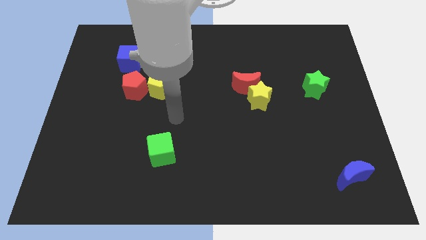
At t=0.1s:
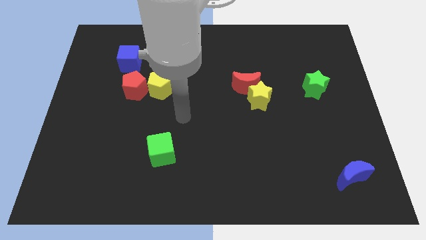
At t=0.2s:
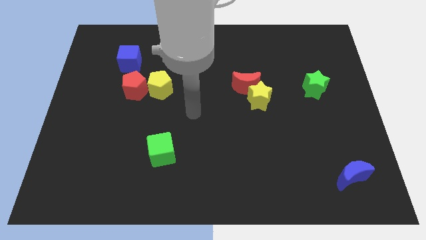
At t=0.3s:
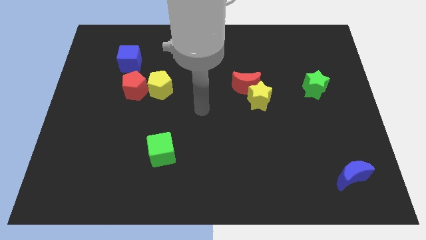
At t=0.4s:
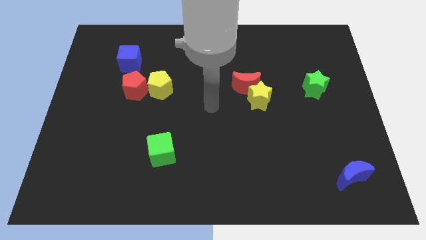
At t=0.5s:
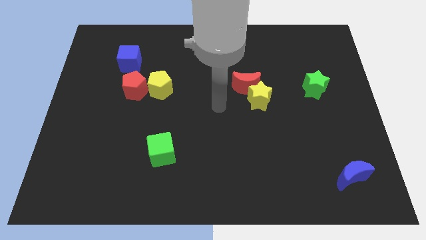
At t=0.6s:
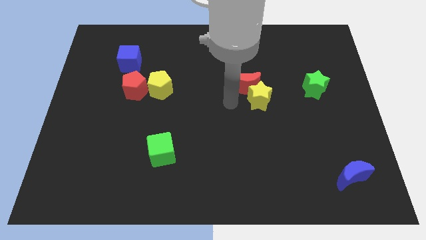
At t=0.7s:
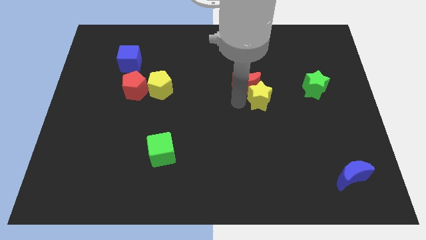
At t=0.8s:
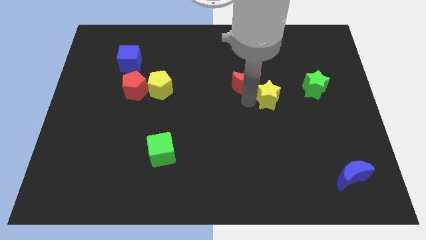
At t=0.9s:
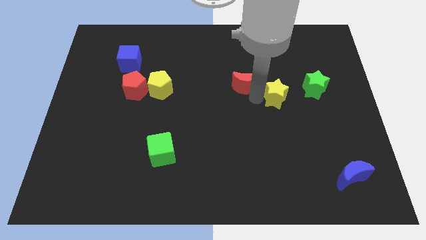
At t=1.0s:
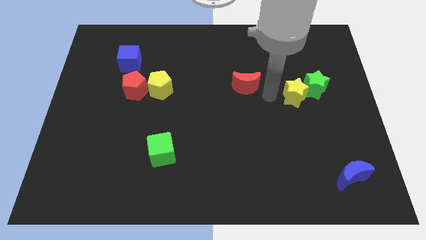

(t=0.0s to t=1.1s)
move the red moon away from the yellow star

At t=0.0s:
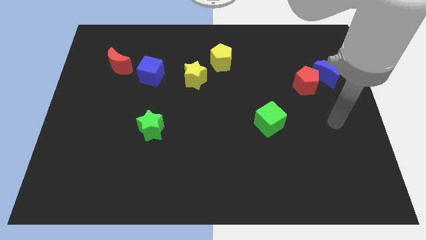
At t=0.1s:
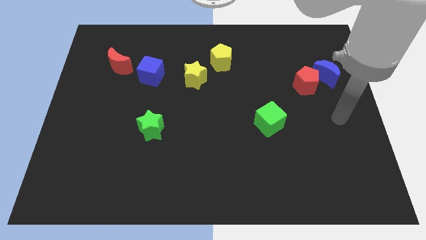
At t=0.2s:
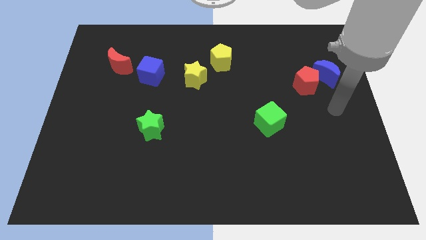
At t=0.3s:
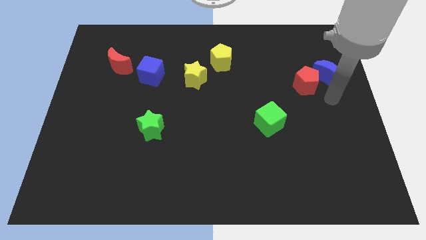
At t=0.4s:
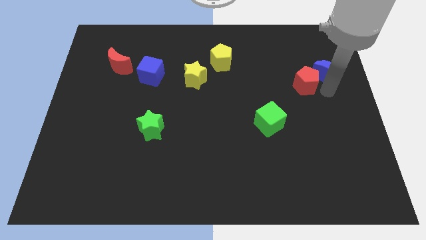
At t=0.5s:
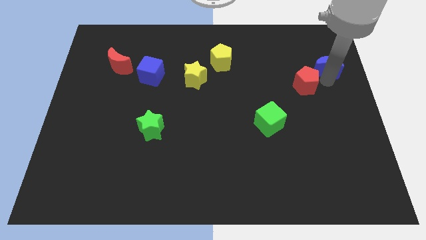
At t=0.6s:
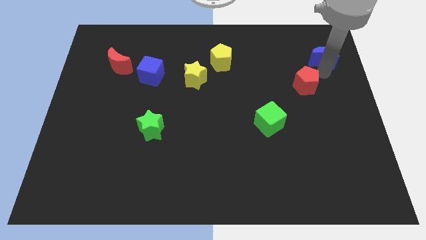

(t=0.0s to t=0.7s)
pull the red pentagon apart from the blue moon

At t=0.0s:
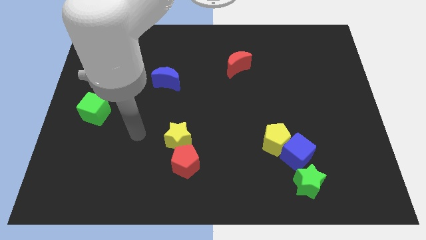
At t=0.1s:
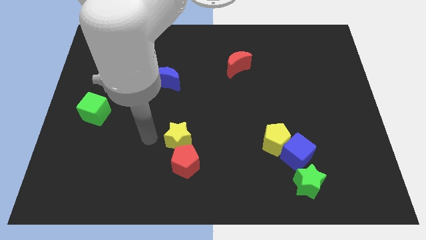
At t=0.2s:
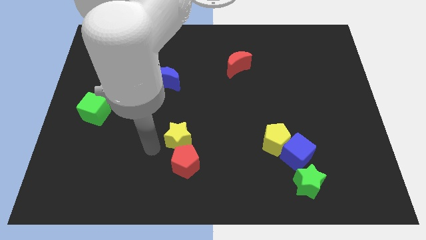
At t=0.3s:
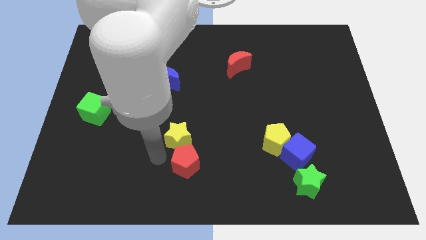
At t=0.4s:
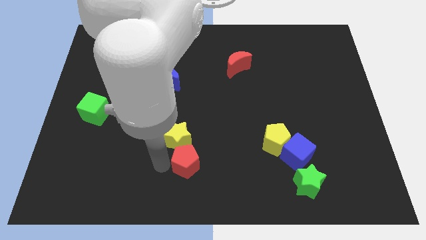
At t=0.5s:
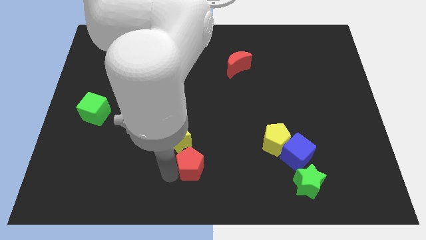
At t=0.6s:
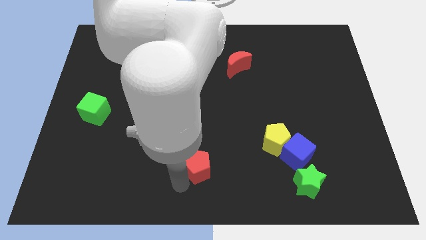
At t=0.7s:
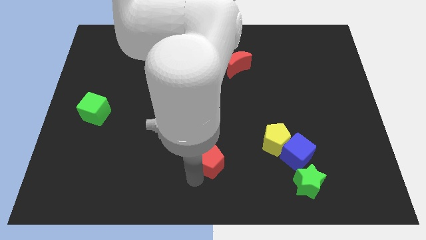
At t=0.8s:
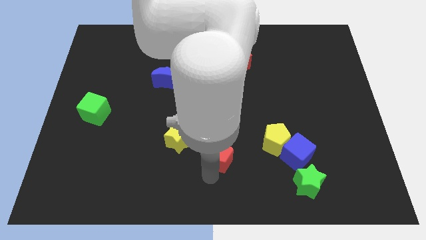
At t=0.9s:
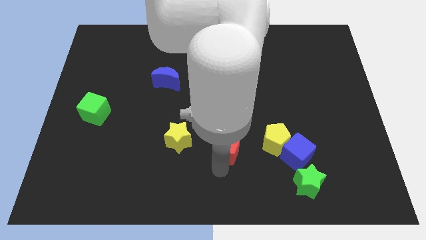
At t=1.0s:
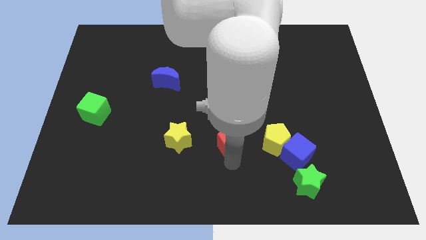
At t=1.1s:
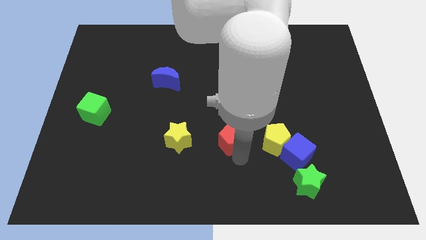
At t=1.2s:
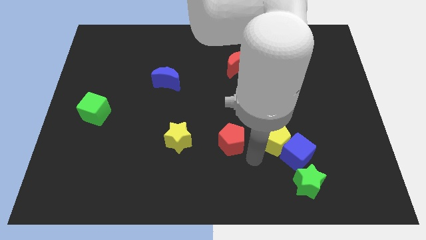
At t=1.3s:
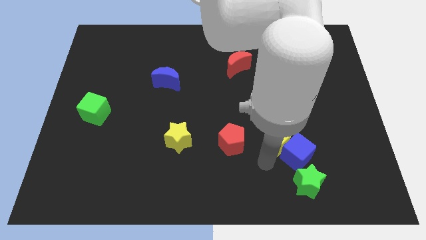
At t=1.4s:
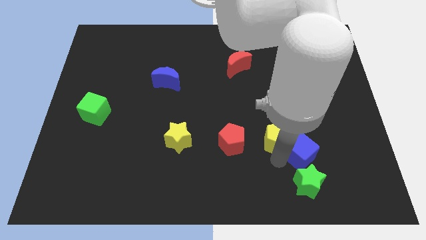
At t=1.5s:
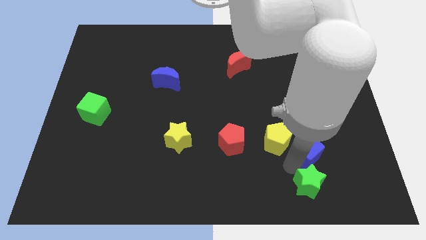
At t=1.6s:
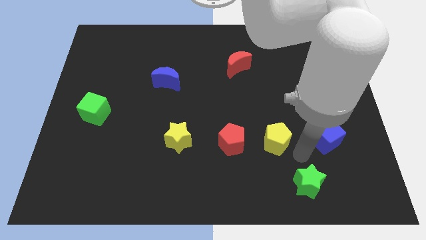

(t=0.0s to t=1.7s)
move the yellow pentagon away from the blue cube

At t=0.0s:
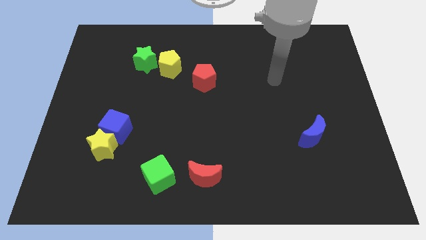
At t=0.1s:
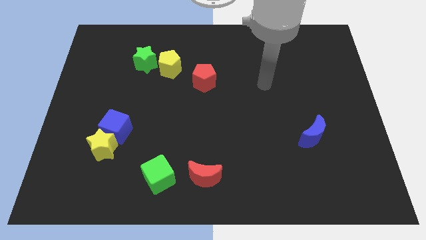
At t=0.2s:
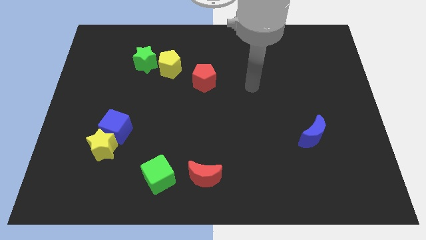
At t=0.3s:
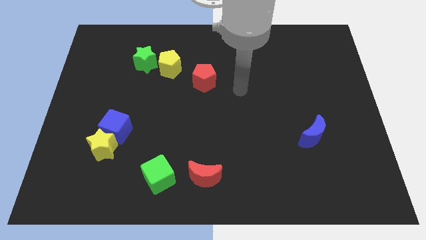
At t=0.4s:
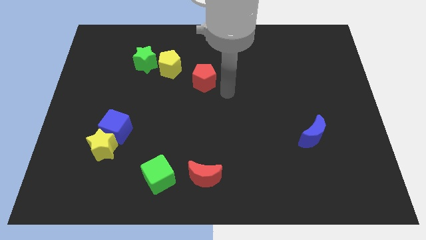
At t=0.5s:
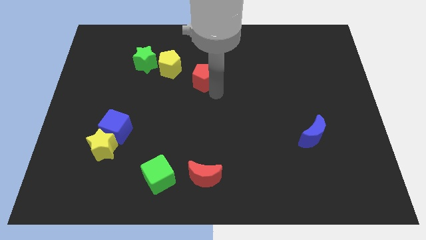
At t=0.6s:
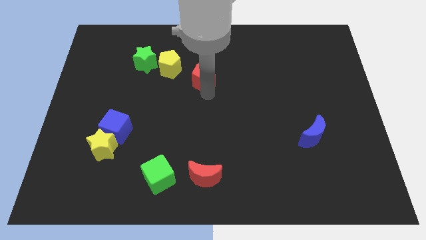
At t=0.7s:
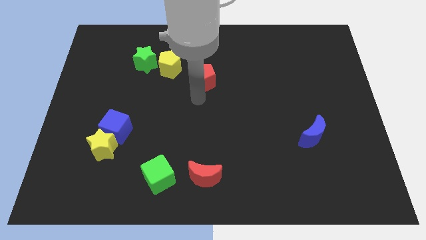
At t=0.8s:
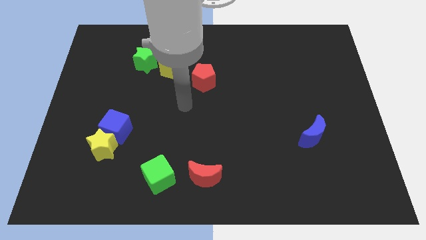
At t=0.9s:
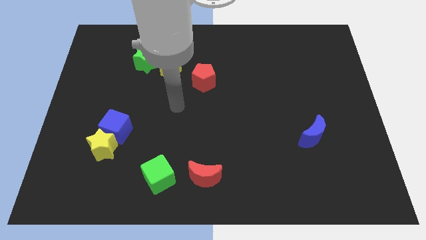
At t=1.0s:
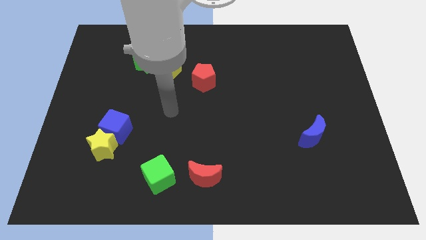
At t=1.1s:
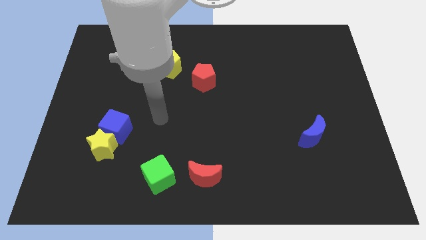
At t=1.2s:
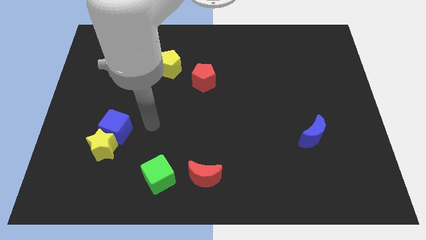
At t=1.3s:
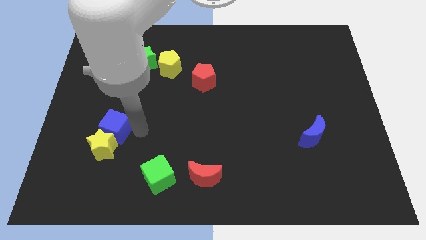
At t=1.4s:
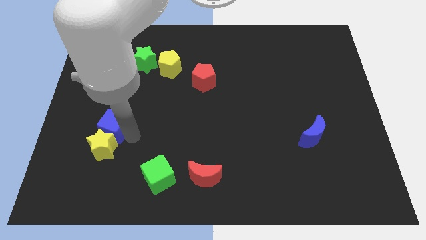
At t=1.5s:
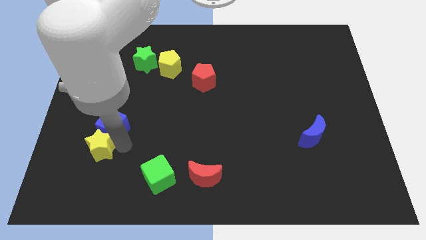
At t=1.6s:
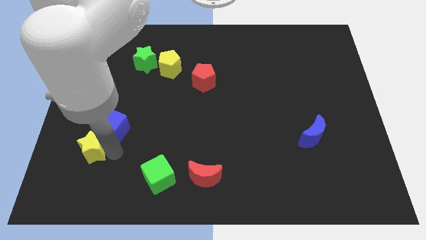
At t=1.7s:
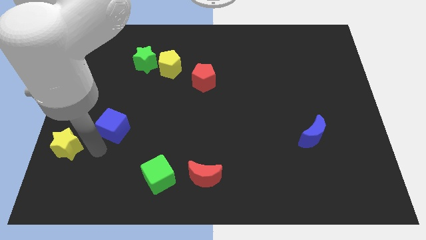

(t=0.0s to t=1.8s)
pull the blue cube apart from the yellow star

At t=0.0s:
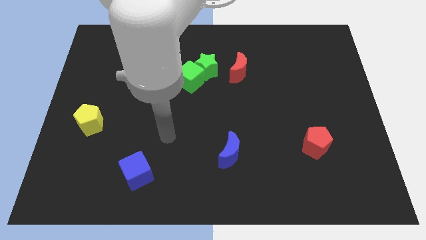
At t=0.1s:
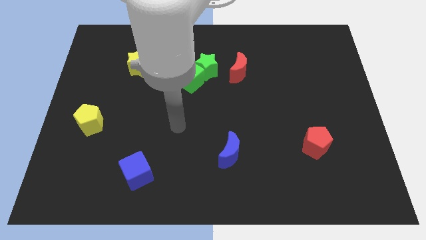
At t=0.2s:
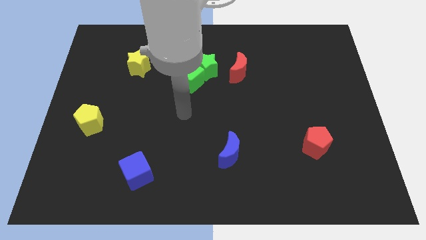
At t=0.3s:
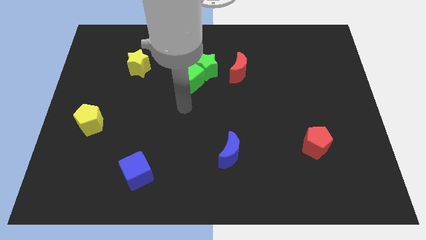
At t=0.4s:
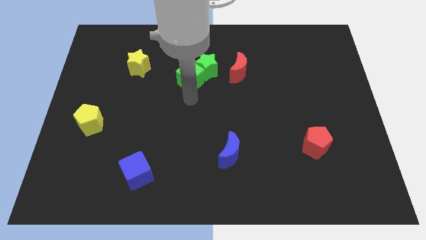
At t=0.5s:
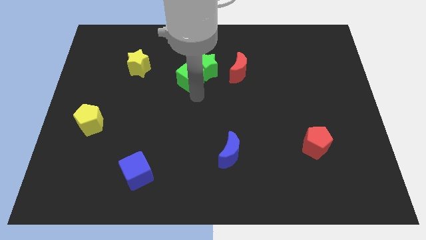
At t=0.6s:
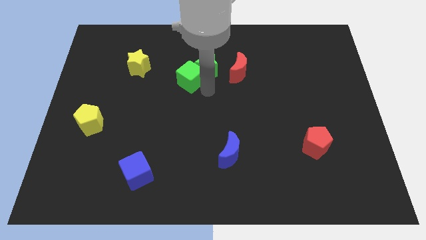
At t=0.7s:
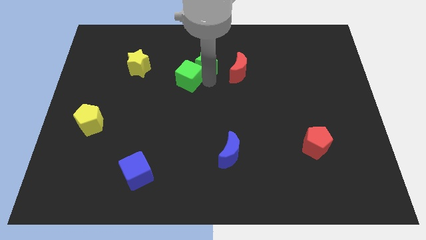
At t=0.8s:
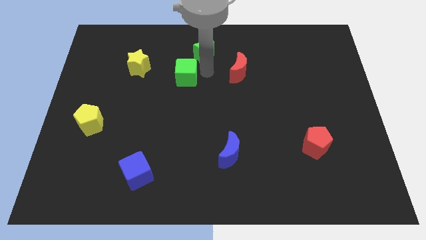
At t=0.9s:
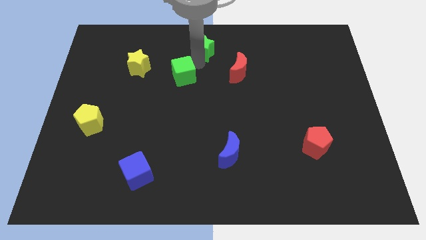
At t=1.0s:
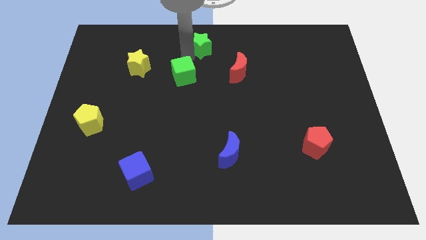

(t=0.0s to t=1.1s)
separate the green cube from the green star

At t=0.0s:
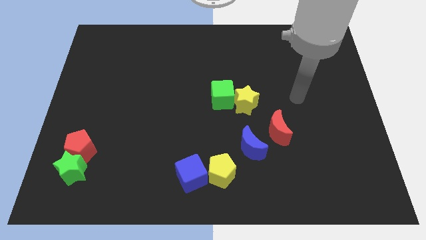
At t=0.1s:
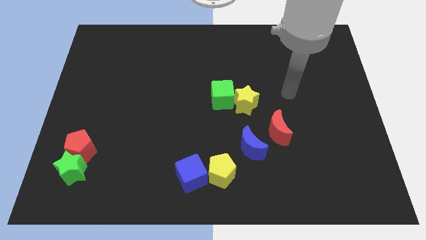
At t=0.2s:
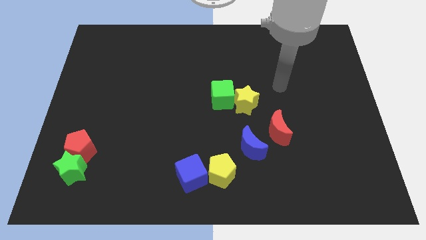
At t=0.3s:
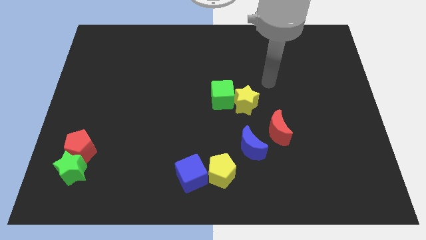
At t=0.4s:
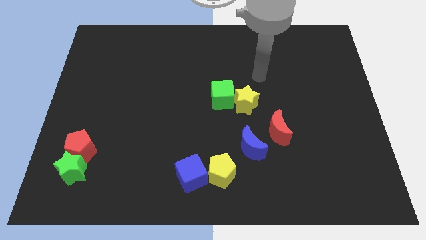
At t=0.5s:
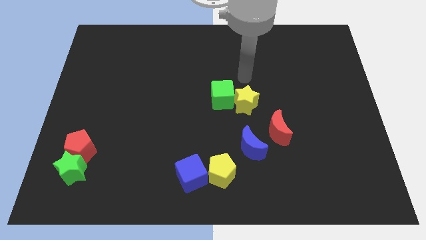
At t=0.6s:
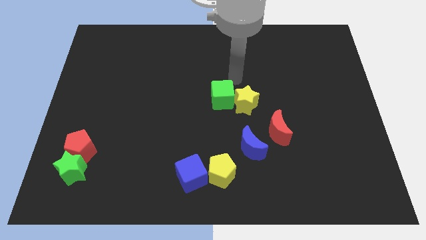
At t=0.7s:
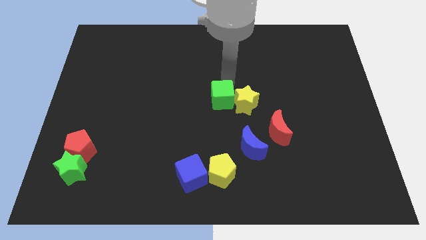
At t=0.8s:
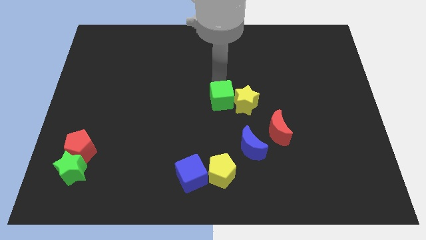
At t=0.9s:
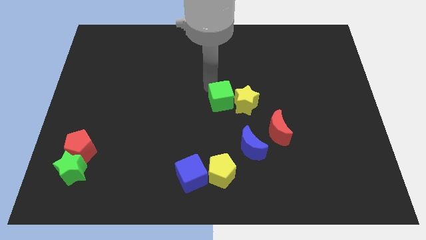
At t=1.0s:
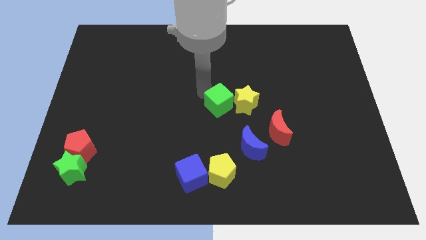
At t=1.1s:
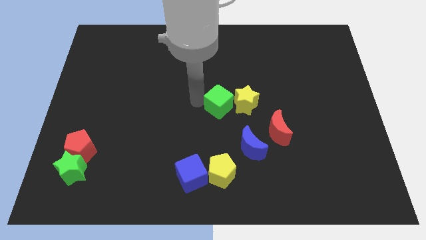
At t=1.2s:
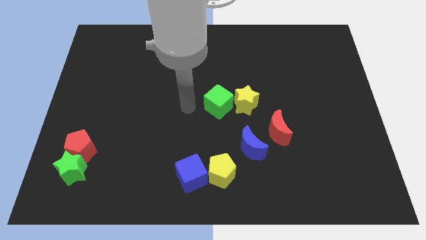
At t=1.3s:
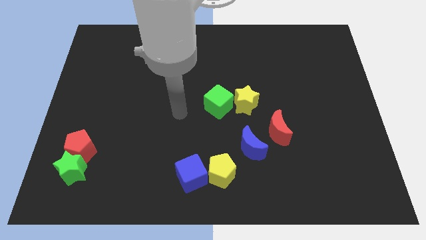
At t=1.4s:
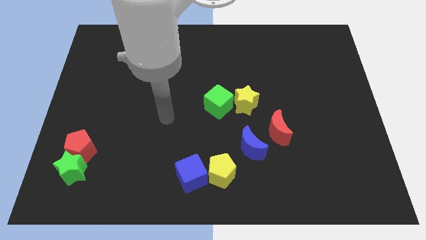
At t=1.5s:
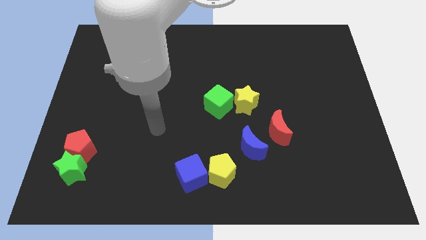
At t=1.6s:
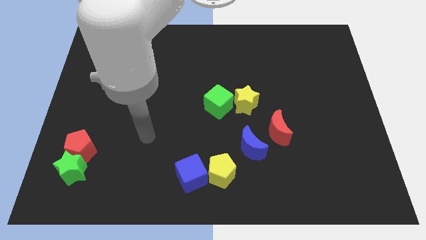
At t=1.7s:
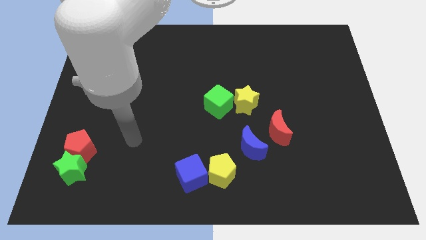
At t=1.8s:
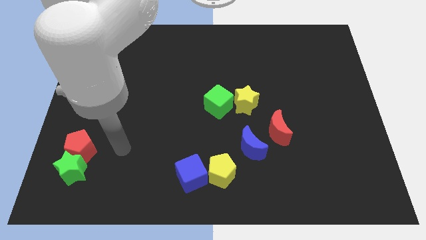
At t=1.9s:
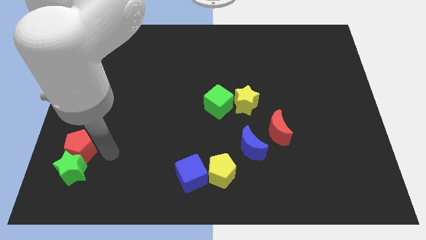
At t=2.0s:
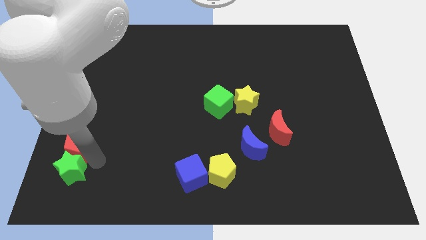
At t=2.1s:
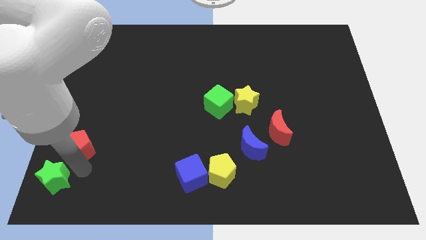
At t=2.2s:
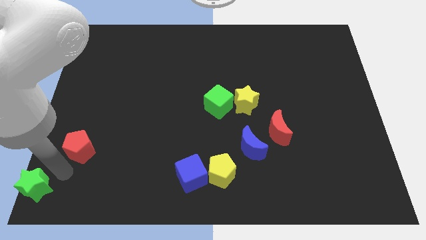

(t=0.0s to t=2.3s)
move the red pentagon away from the green star

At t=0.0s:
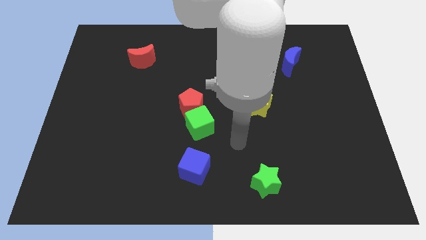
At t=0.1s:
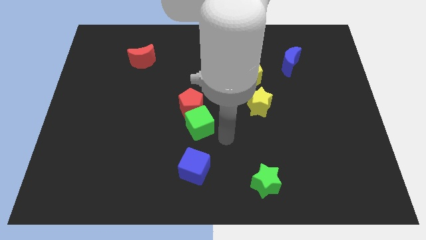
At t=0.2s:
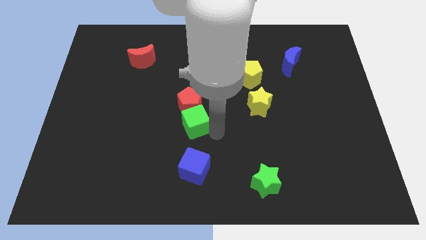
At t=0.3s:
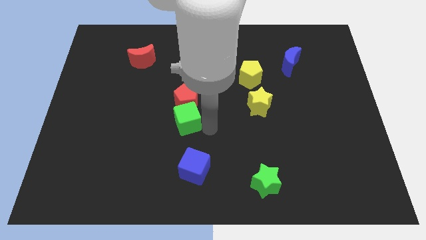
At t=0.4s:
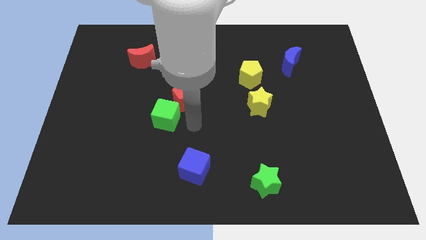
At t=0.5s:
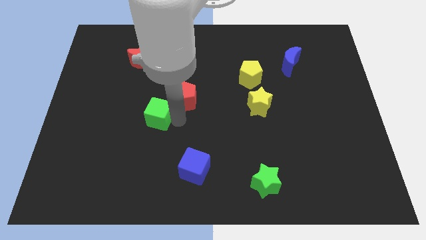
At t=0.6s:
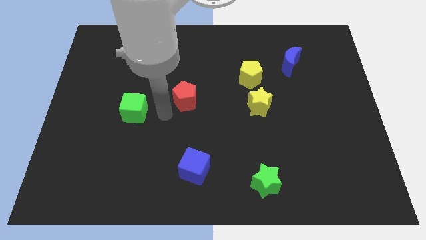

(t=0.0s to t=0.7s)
move the red pentagon away from the green cube
